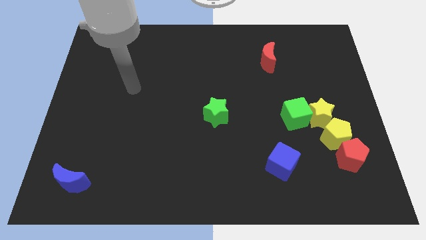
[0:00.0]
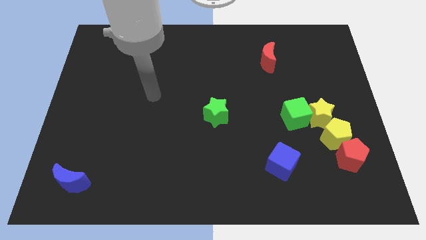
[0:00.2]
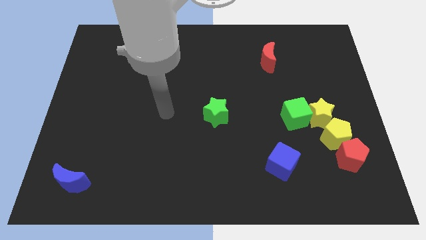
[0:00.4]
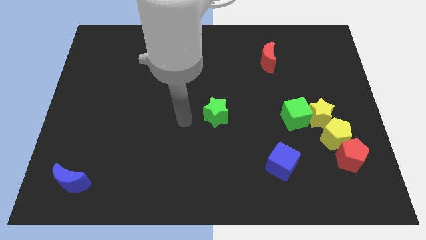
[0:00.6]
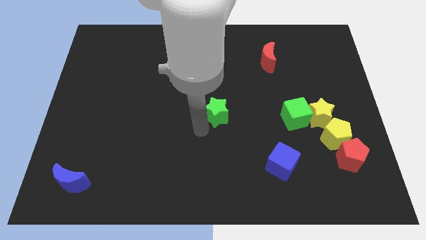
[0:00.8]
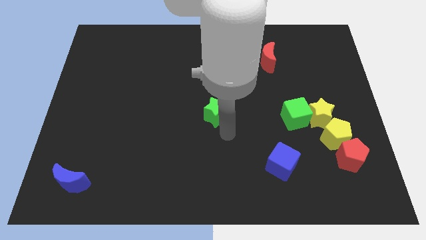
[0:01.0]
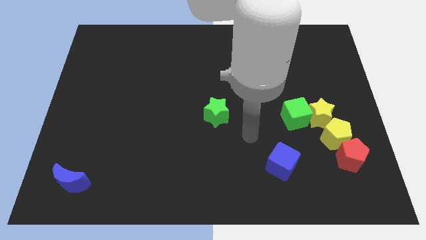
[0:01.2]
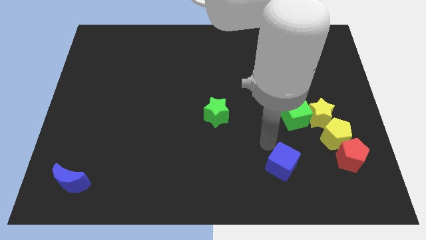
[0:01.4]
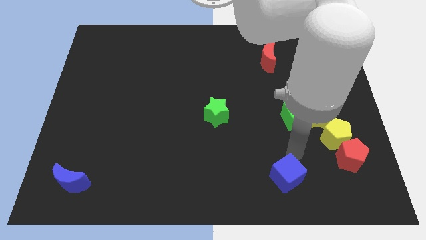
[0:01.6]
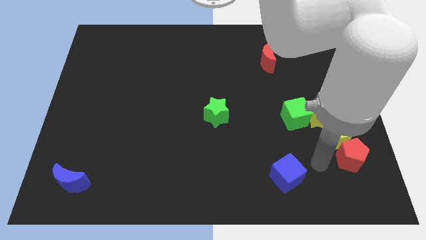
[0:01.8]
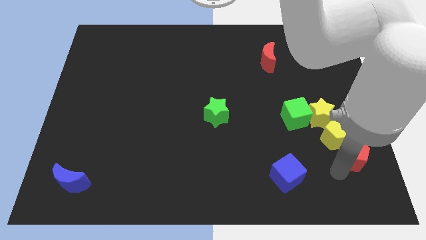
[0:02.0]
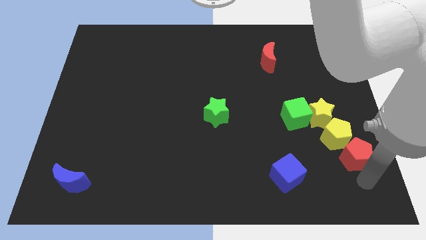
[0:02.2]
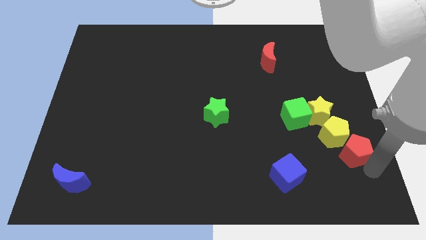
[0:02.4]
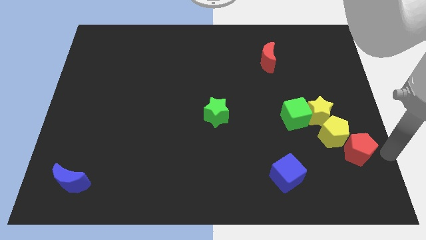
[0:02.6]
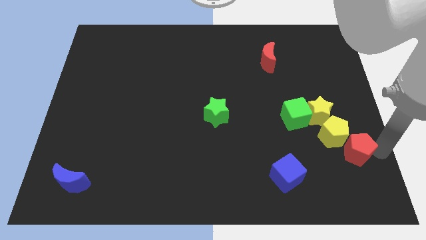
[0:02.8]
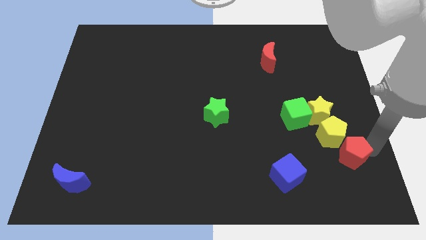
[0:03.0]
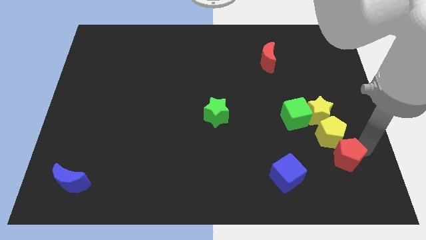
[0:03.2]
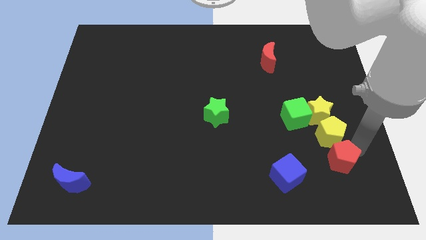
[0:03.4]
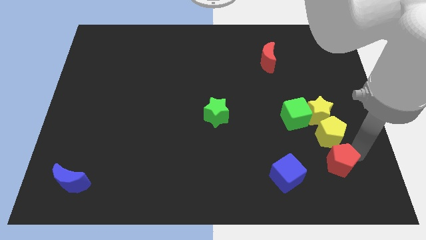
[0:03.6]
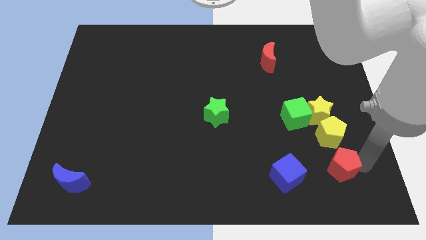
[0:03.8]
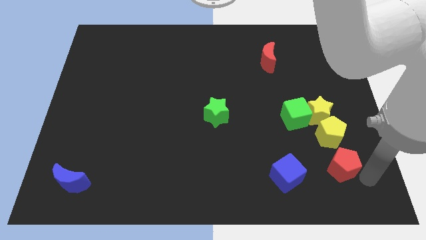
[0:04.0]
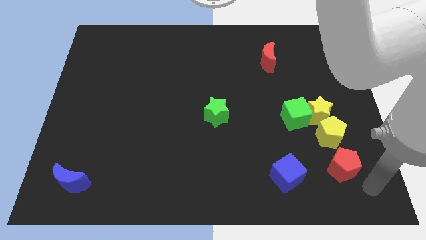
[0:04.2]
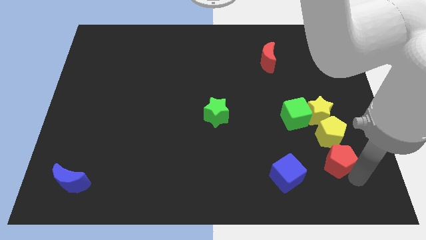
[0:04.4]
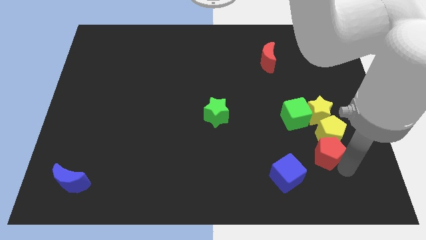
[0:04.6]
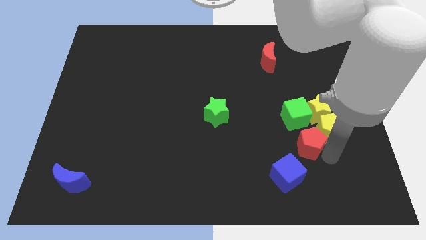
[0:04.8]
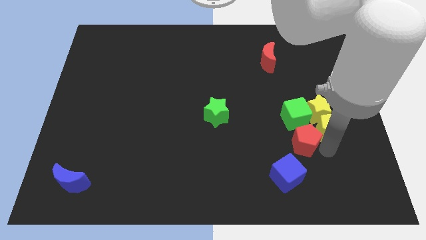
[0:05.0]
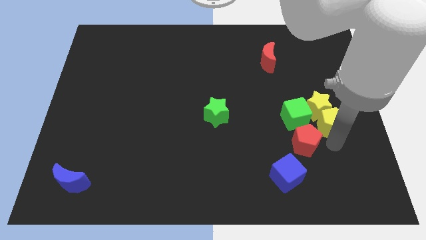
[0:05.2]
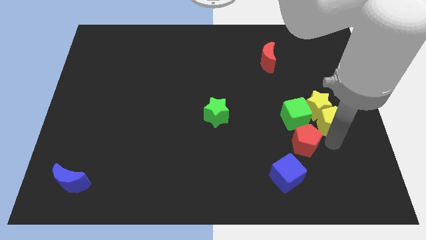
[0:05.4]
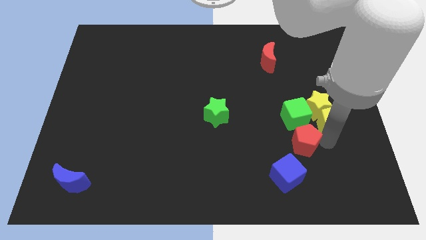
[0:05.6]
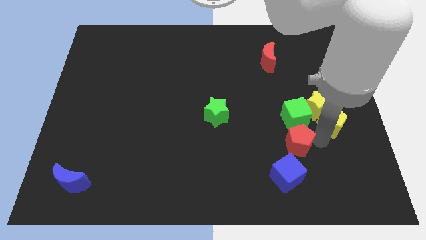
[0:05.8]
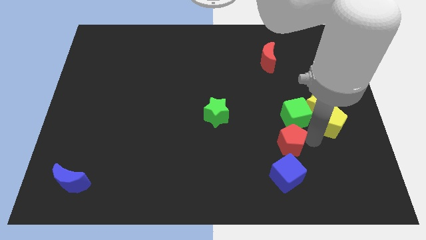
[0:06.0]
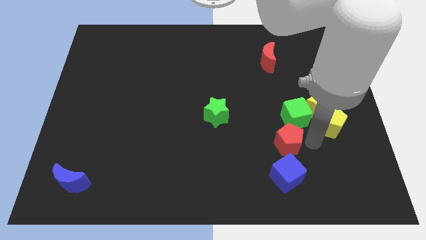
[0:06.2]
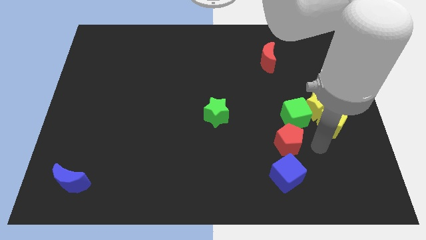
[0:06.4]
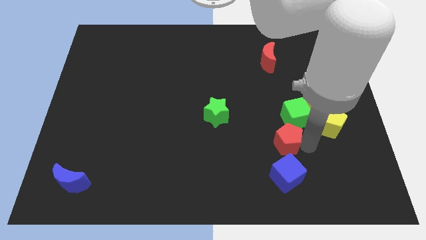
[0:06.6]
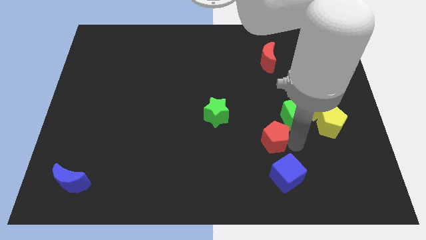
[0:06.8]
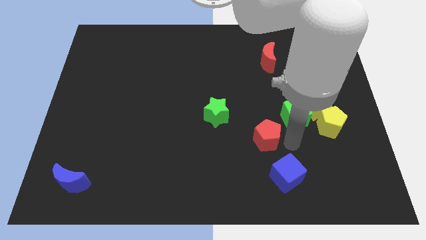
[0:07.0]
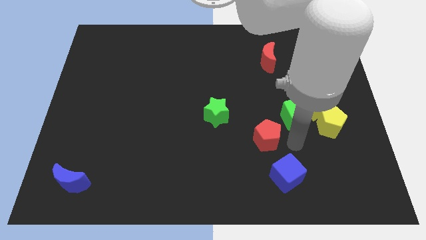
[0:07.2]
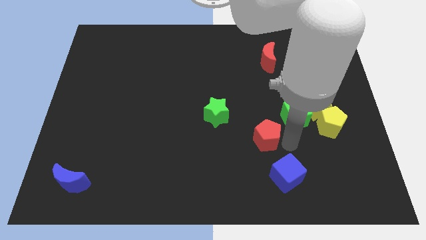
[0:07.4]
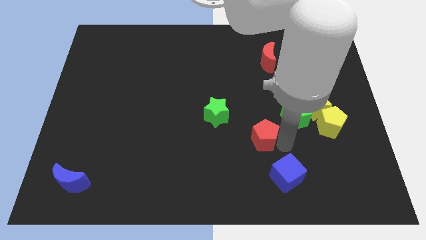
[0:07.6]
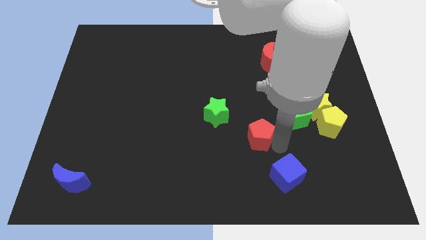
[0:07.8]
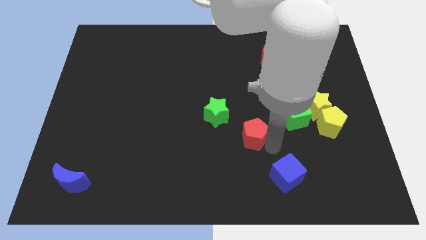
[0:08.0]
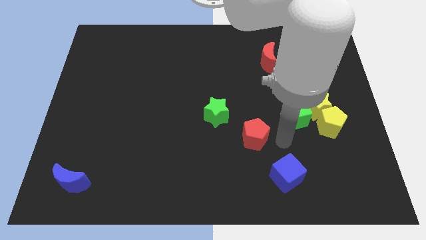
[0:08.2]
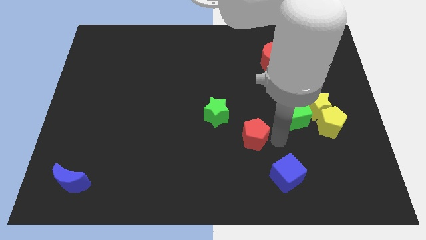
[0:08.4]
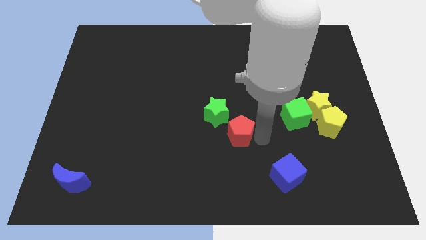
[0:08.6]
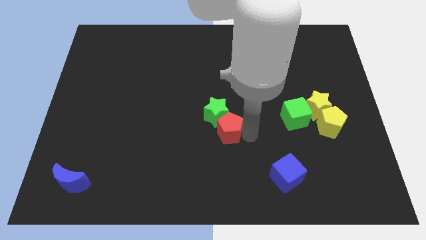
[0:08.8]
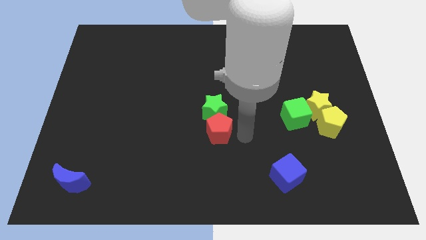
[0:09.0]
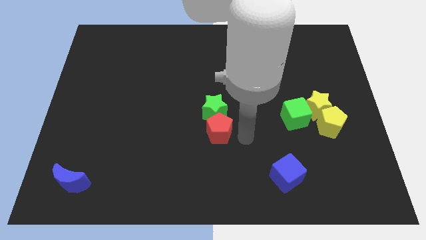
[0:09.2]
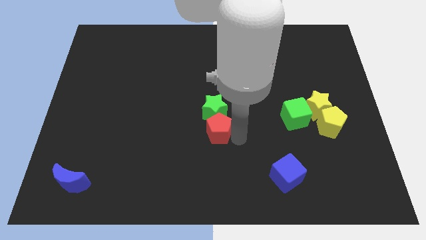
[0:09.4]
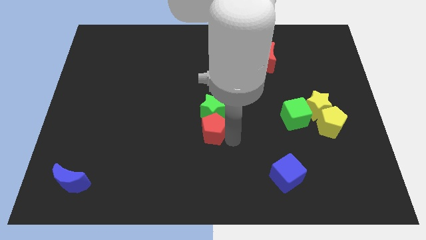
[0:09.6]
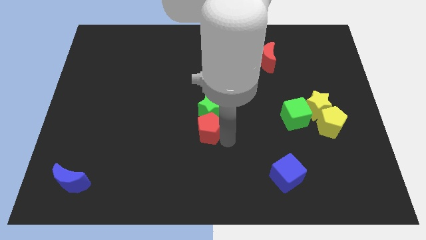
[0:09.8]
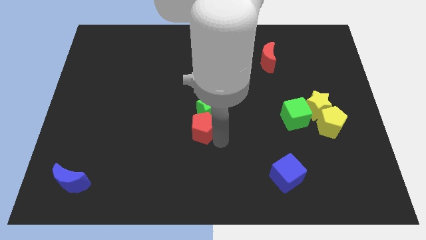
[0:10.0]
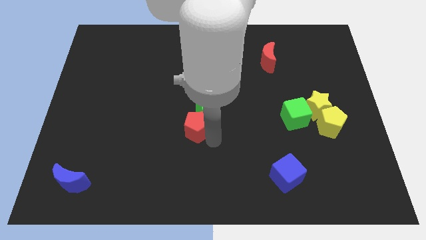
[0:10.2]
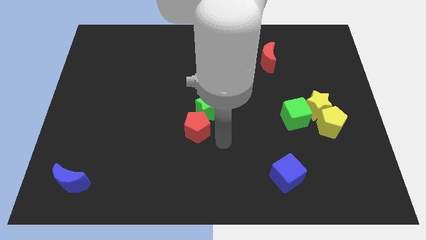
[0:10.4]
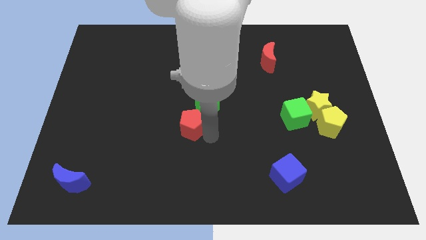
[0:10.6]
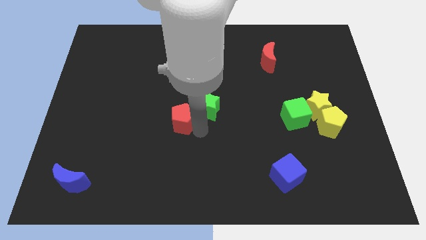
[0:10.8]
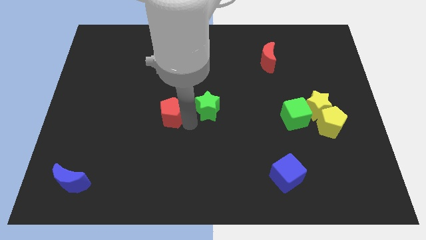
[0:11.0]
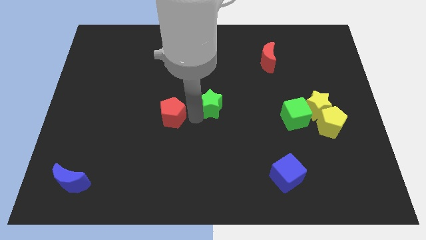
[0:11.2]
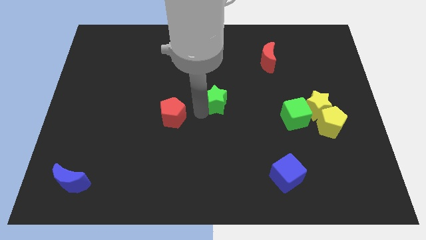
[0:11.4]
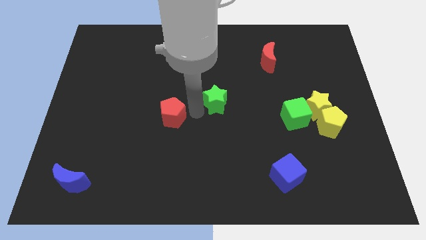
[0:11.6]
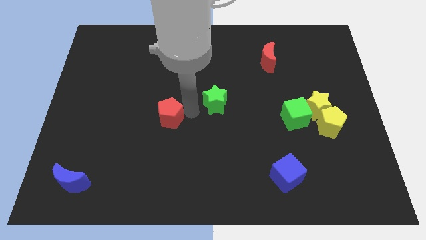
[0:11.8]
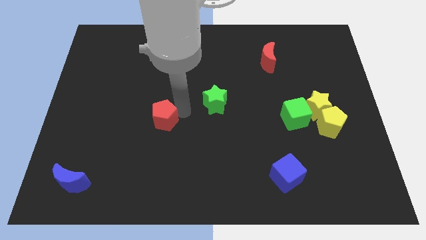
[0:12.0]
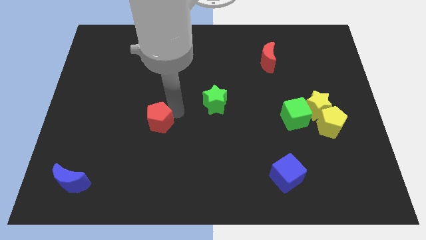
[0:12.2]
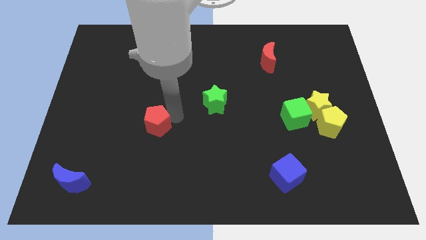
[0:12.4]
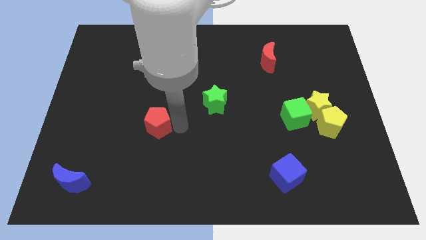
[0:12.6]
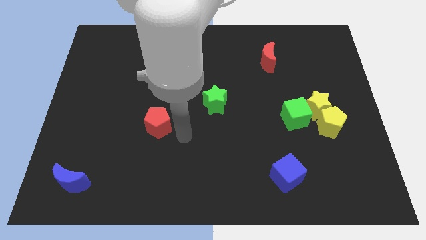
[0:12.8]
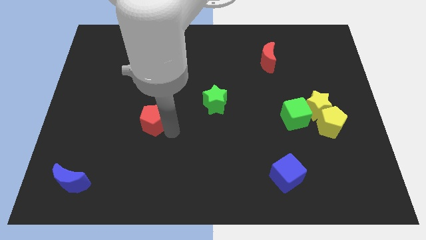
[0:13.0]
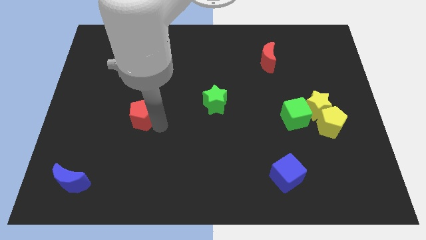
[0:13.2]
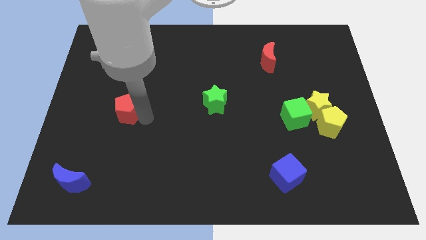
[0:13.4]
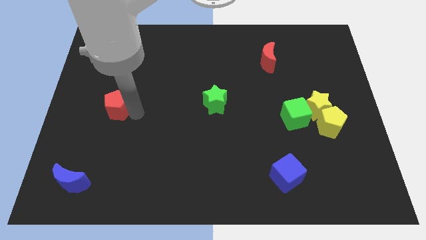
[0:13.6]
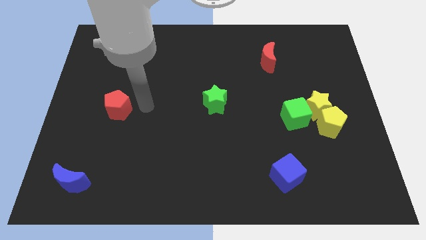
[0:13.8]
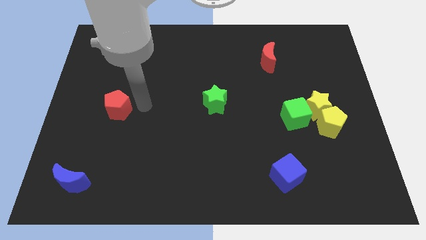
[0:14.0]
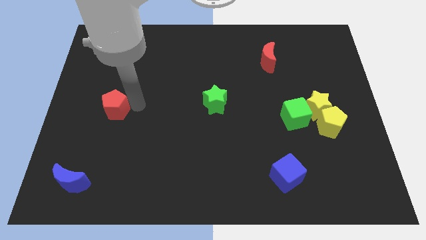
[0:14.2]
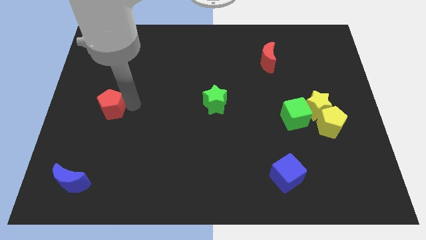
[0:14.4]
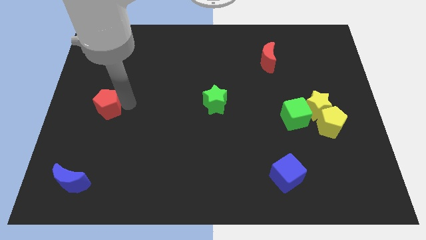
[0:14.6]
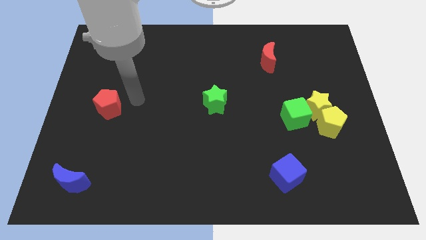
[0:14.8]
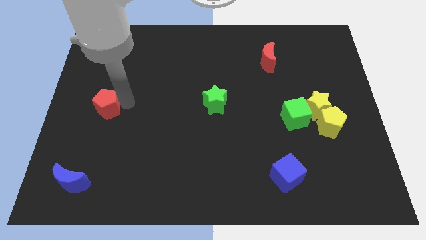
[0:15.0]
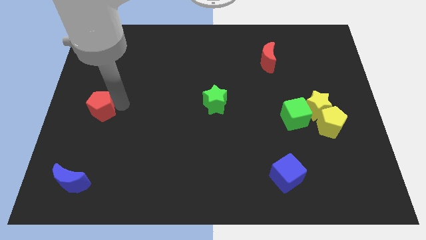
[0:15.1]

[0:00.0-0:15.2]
put the red pentagon to the center left
